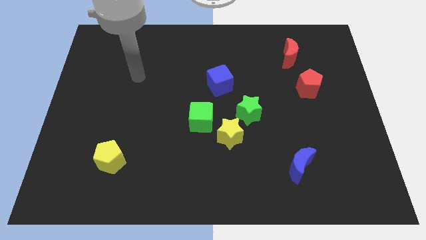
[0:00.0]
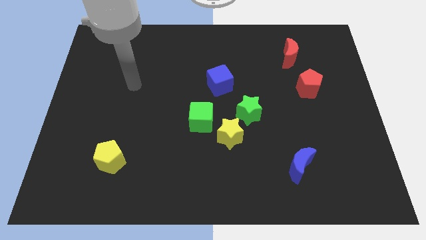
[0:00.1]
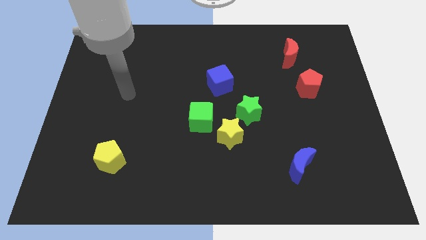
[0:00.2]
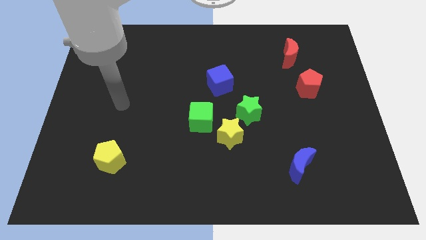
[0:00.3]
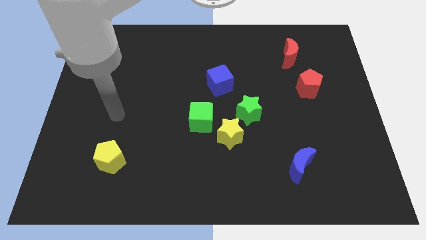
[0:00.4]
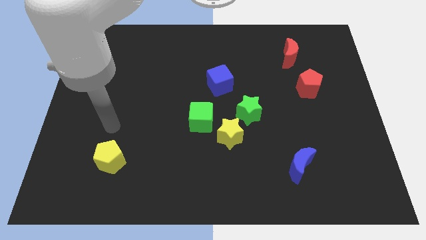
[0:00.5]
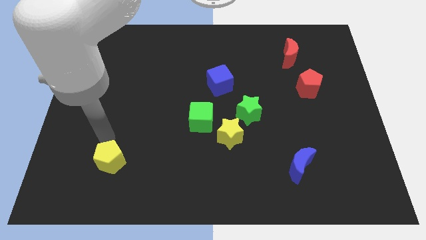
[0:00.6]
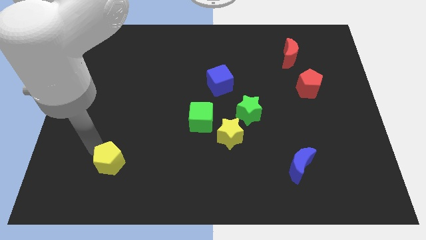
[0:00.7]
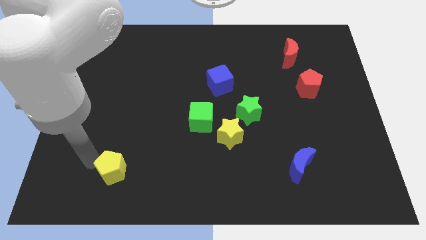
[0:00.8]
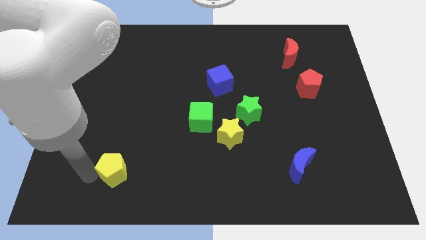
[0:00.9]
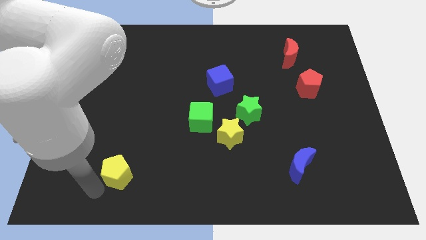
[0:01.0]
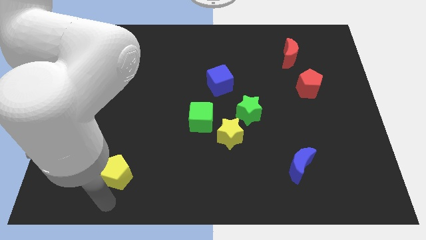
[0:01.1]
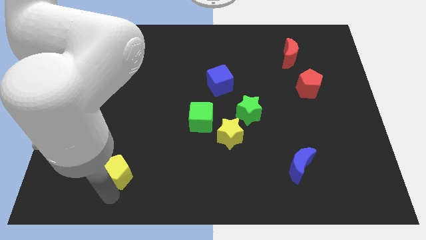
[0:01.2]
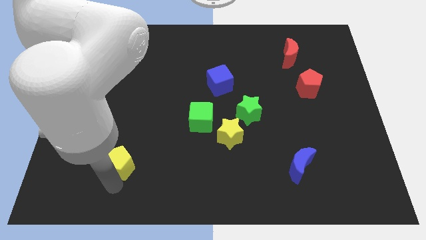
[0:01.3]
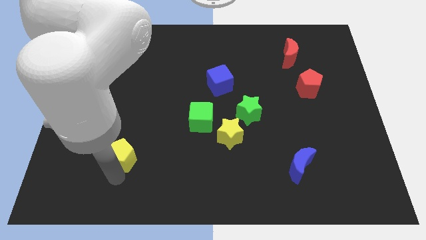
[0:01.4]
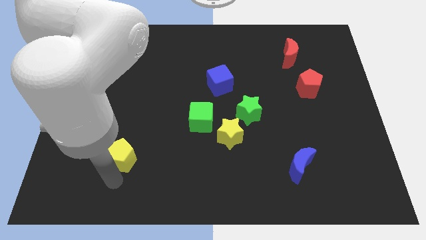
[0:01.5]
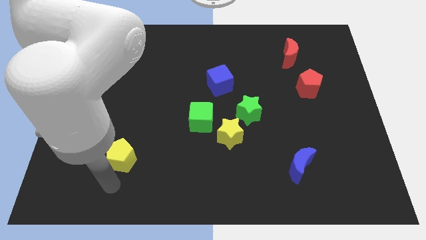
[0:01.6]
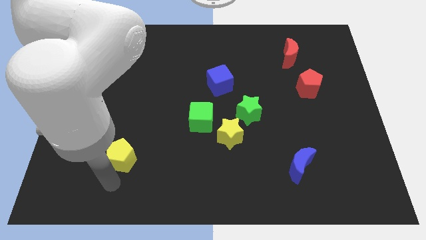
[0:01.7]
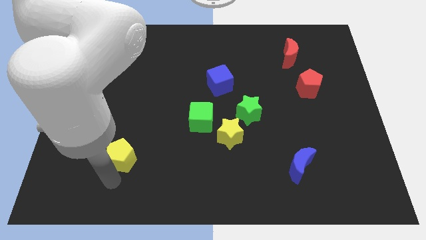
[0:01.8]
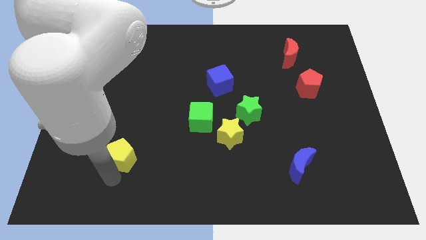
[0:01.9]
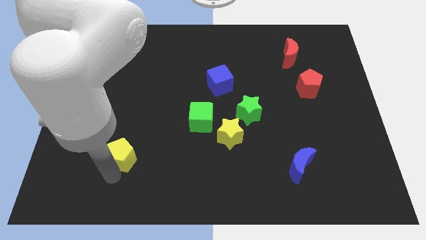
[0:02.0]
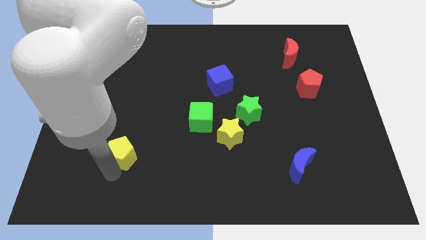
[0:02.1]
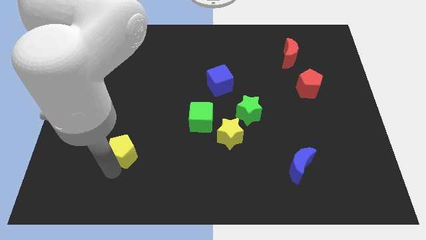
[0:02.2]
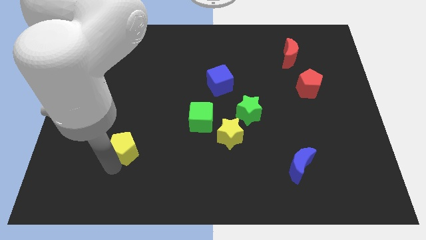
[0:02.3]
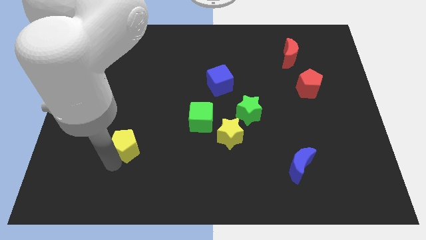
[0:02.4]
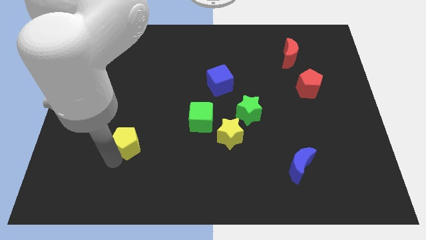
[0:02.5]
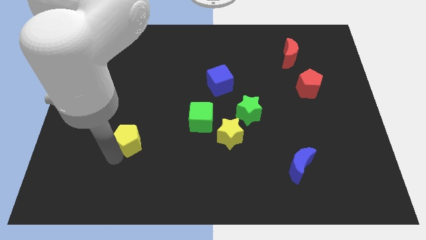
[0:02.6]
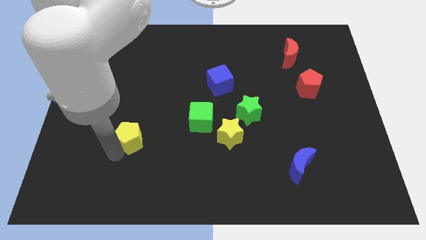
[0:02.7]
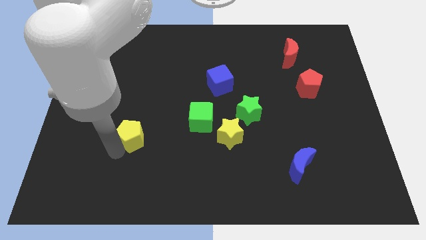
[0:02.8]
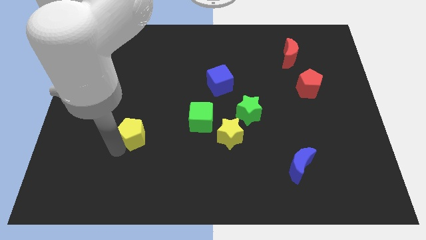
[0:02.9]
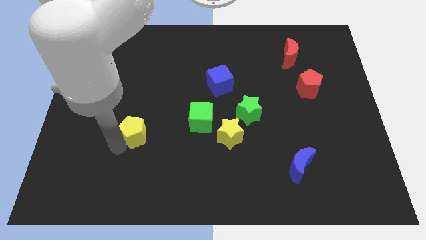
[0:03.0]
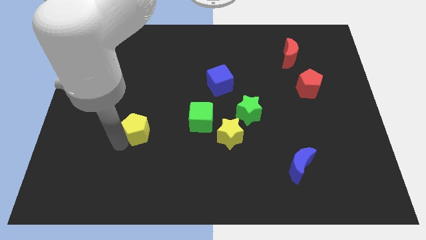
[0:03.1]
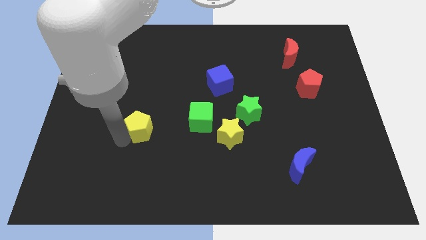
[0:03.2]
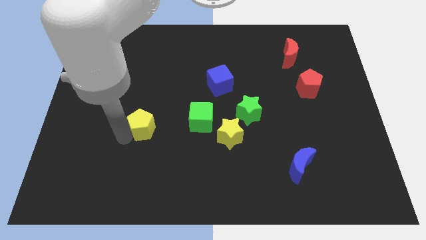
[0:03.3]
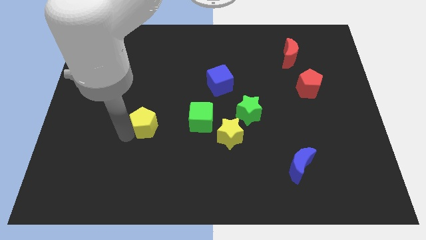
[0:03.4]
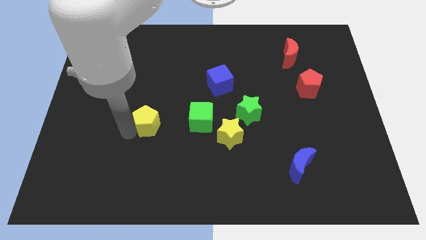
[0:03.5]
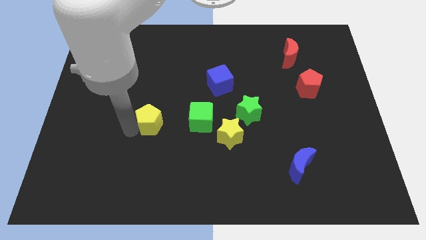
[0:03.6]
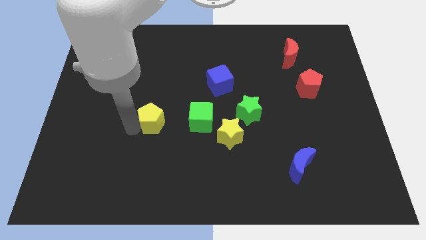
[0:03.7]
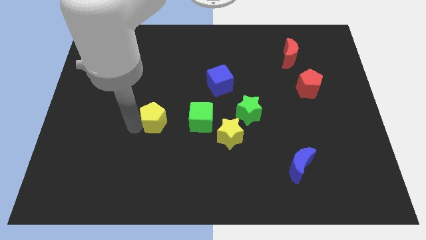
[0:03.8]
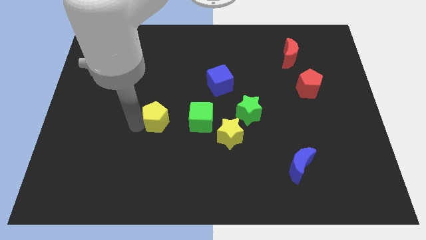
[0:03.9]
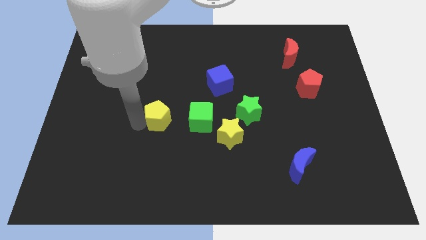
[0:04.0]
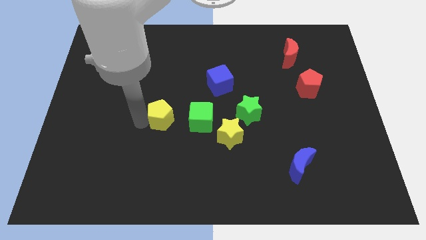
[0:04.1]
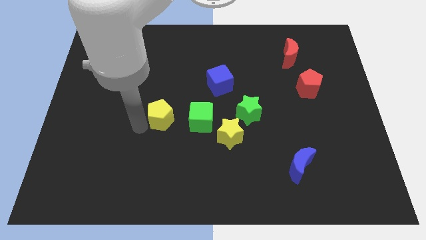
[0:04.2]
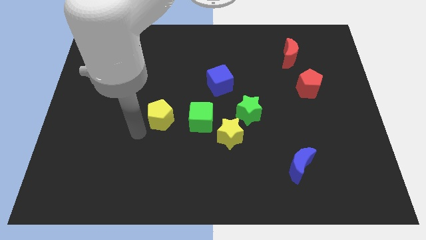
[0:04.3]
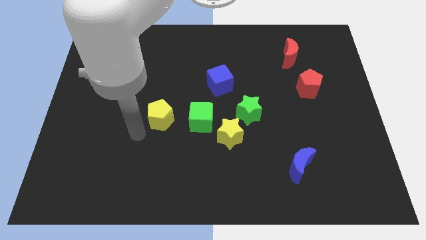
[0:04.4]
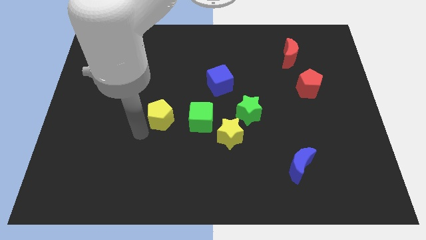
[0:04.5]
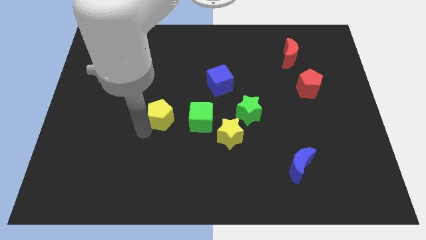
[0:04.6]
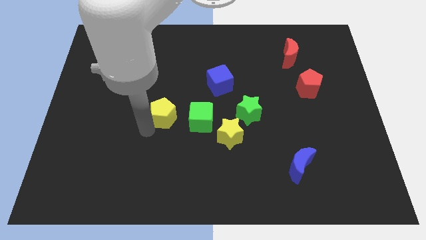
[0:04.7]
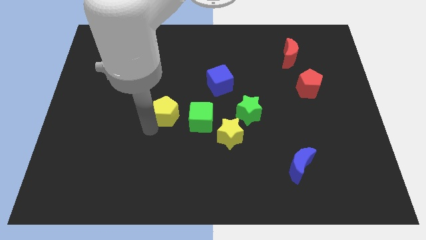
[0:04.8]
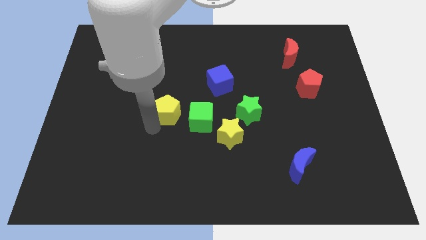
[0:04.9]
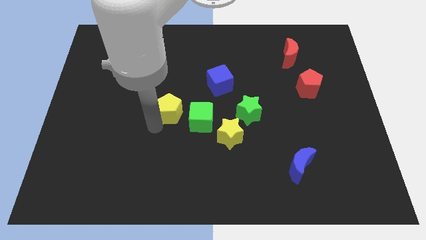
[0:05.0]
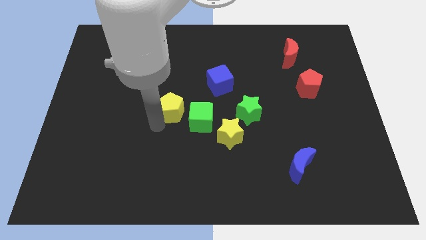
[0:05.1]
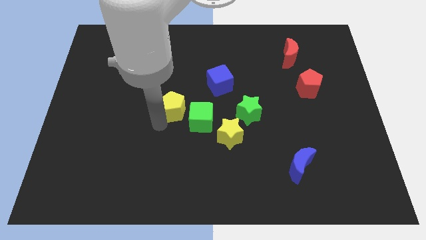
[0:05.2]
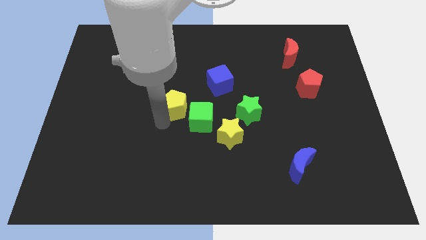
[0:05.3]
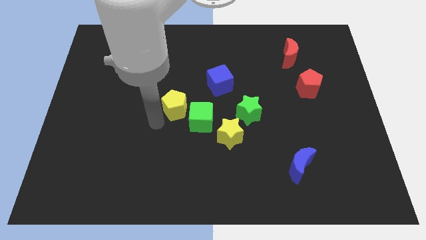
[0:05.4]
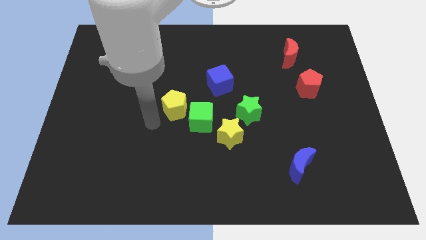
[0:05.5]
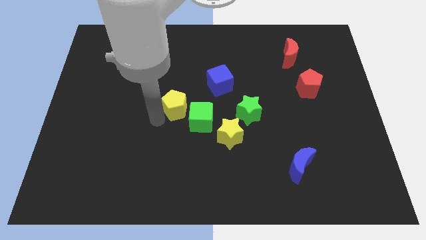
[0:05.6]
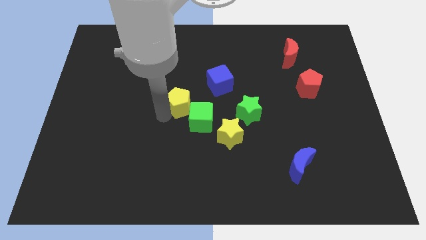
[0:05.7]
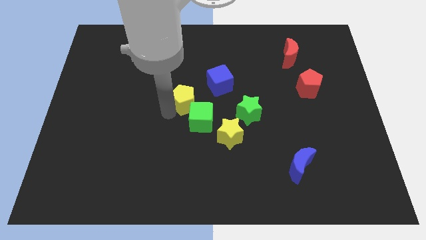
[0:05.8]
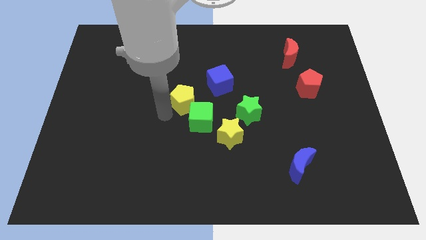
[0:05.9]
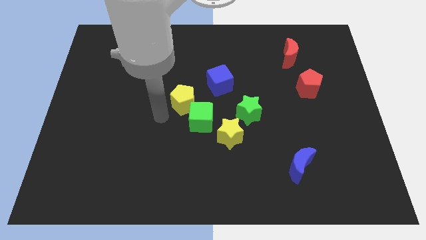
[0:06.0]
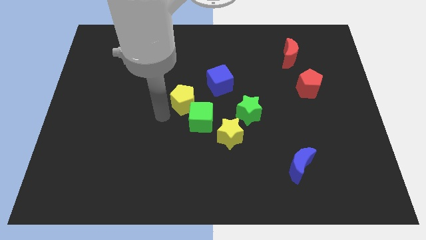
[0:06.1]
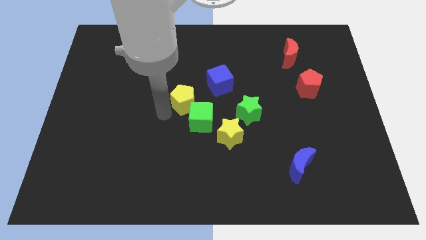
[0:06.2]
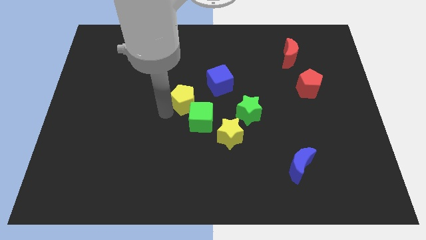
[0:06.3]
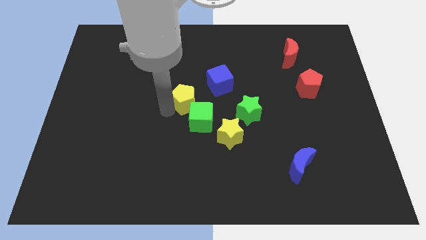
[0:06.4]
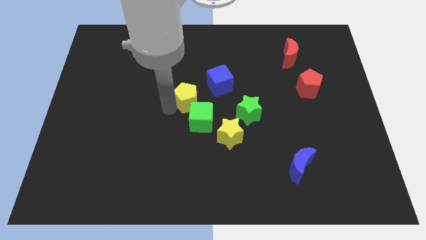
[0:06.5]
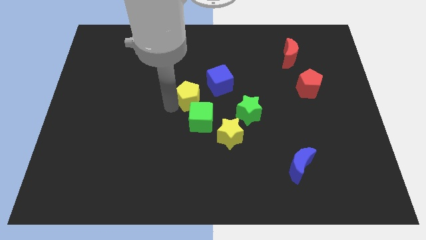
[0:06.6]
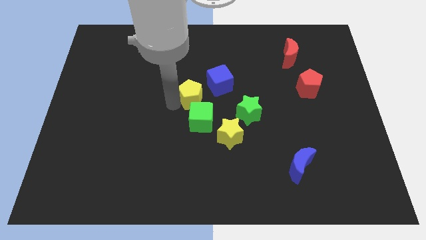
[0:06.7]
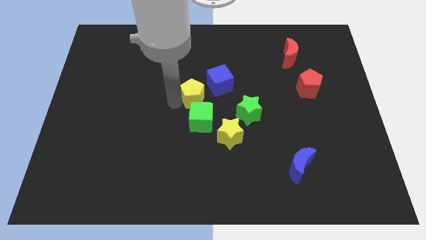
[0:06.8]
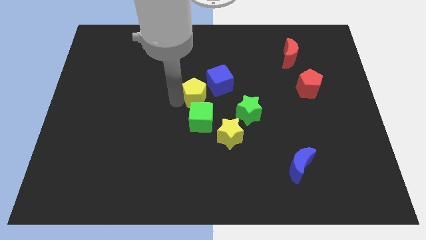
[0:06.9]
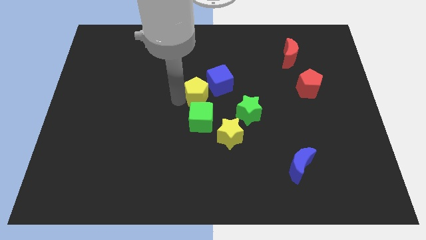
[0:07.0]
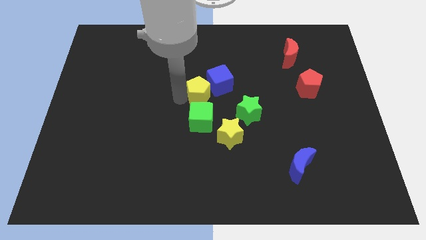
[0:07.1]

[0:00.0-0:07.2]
push the yellow pentagon towards the blue cube
